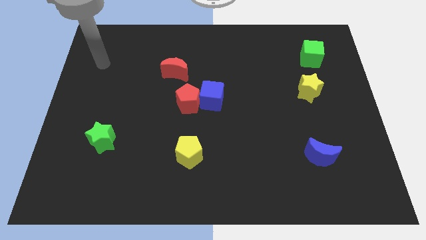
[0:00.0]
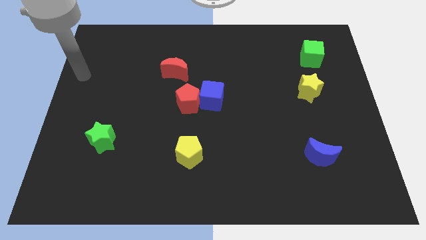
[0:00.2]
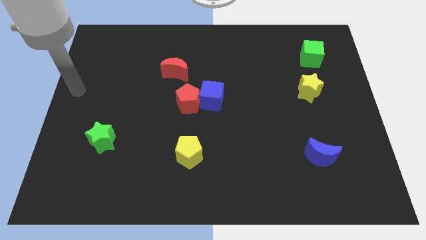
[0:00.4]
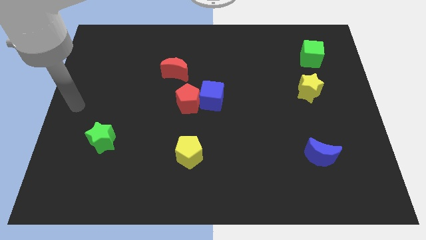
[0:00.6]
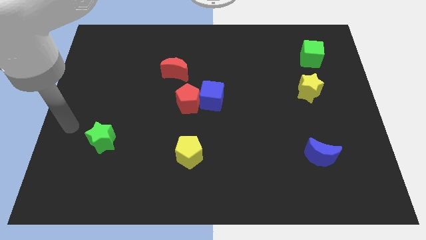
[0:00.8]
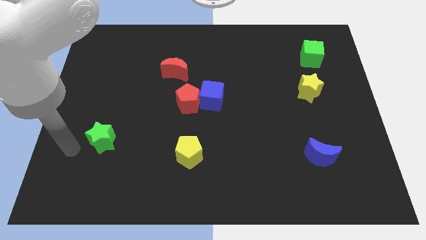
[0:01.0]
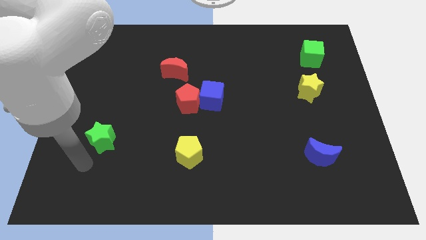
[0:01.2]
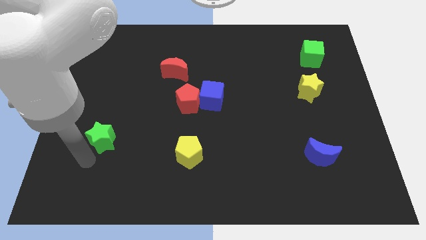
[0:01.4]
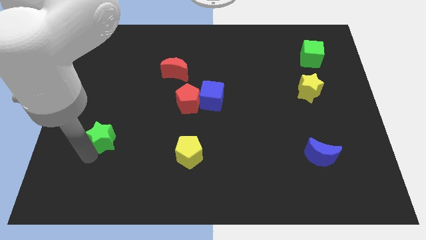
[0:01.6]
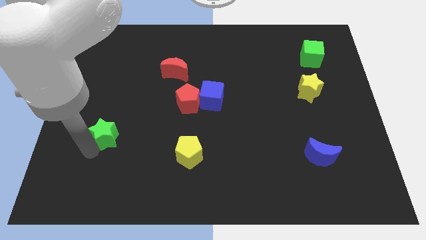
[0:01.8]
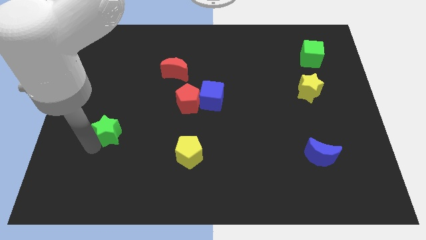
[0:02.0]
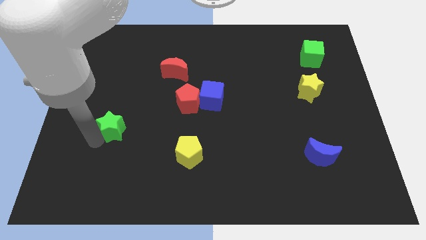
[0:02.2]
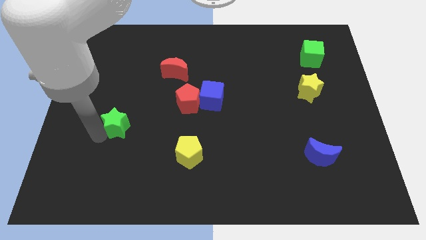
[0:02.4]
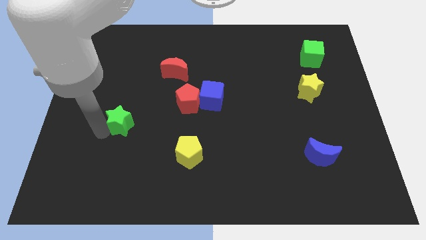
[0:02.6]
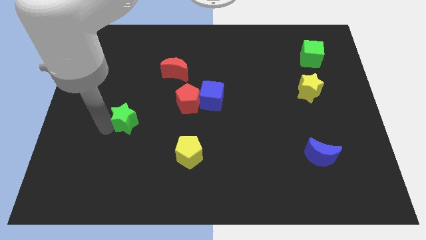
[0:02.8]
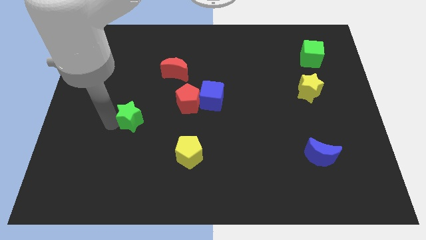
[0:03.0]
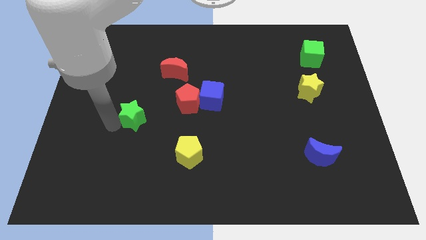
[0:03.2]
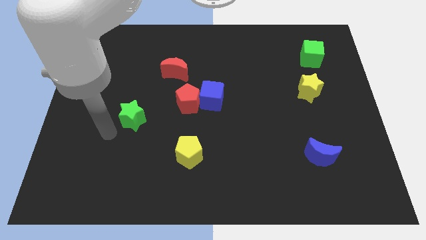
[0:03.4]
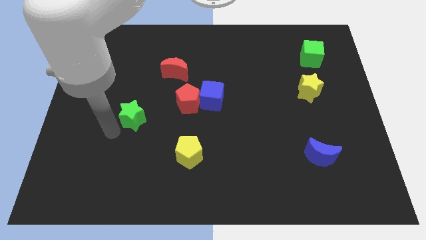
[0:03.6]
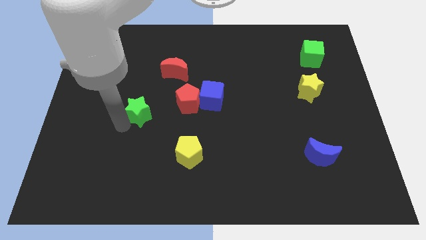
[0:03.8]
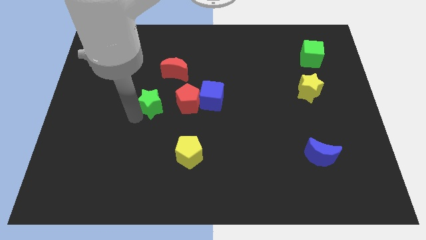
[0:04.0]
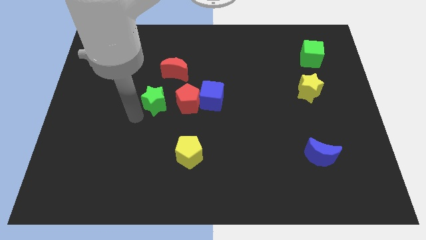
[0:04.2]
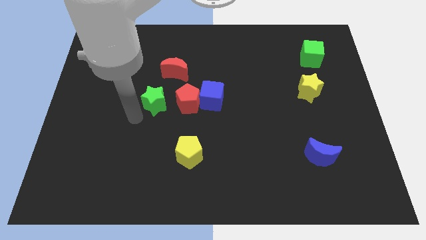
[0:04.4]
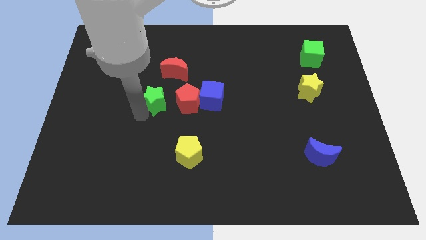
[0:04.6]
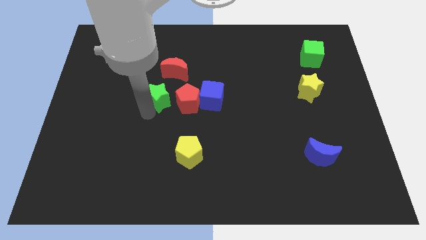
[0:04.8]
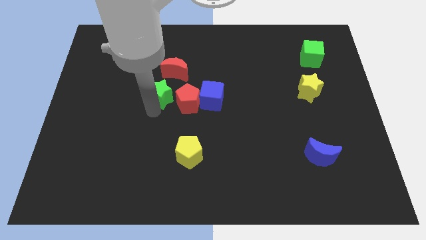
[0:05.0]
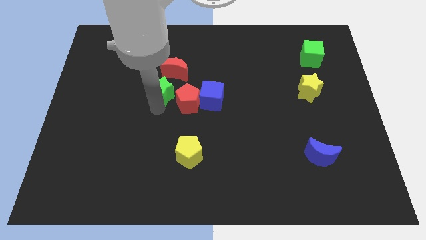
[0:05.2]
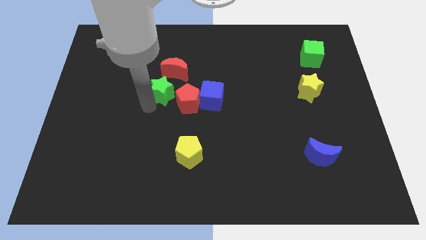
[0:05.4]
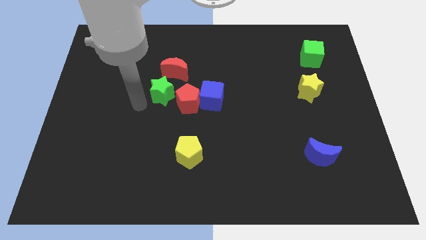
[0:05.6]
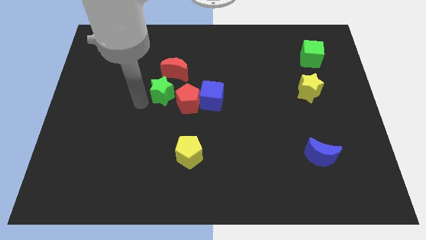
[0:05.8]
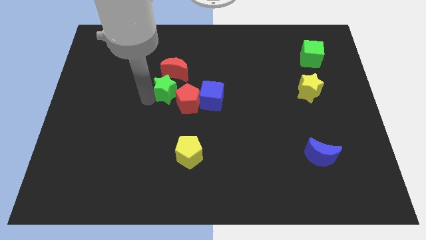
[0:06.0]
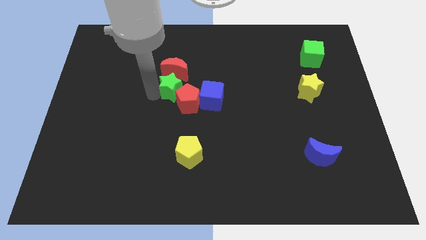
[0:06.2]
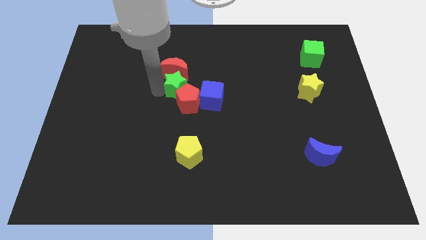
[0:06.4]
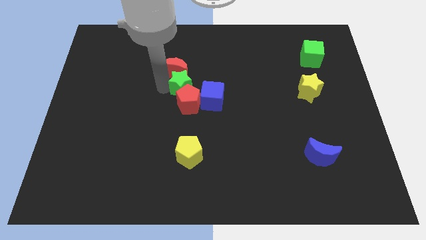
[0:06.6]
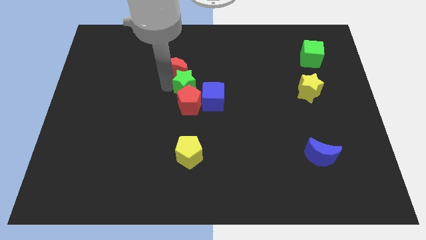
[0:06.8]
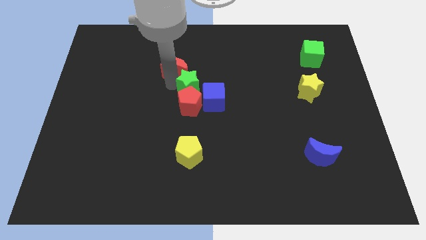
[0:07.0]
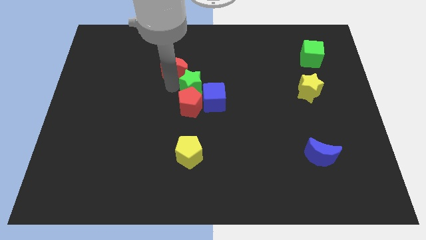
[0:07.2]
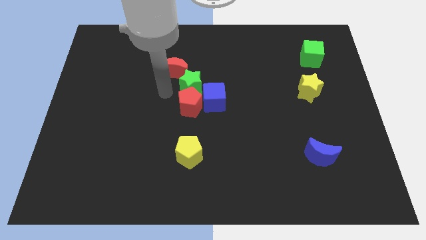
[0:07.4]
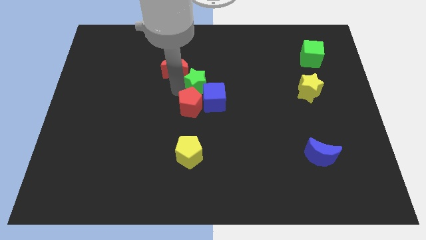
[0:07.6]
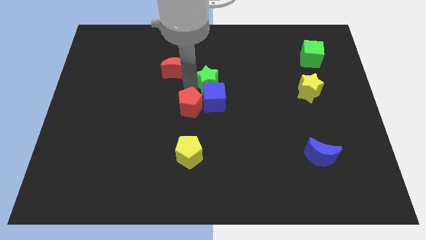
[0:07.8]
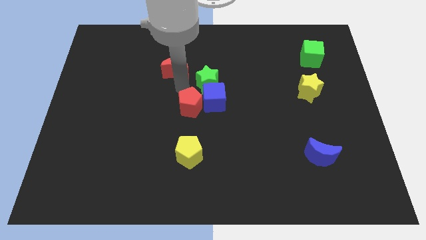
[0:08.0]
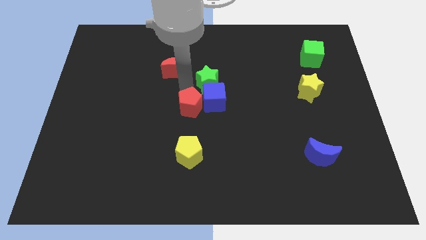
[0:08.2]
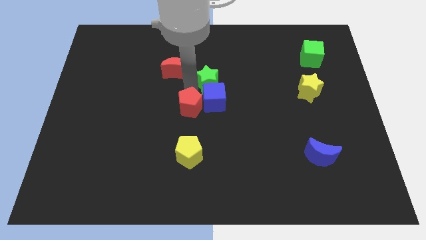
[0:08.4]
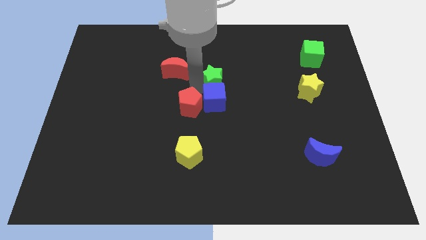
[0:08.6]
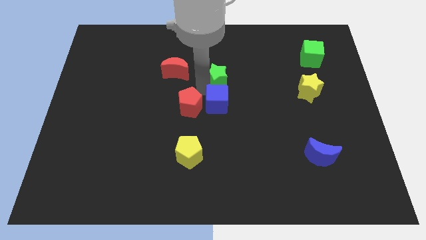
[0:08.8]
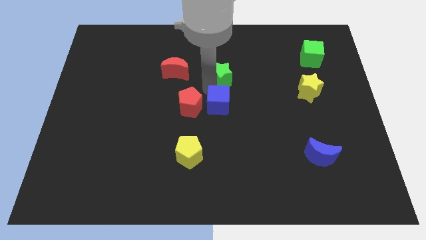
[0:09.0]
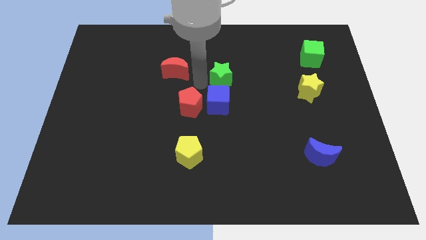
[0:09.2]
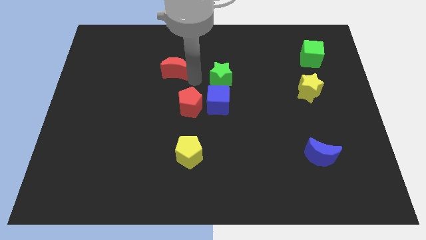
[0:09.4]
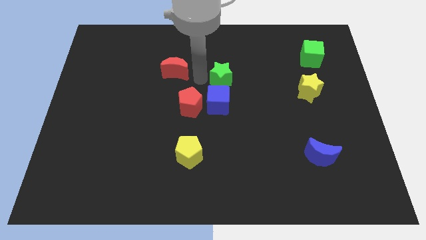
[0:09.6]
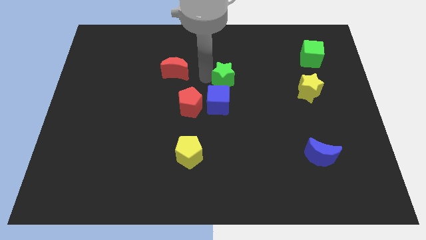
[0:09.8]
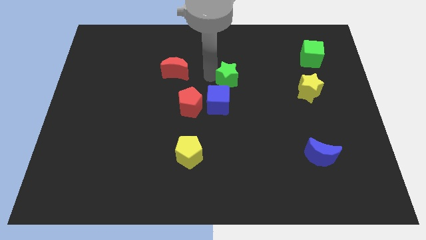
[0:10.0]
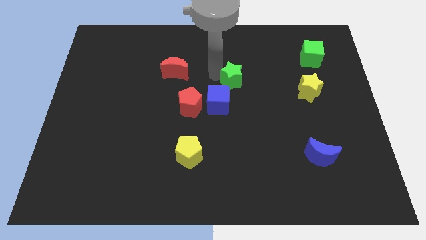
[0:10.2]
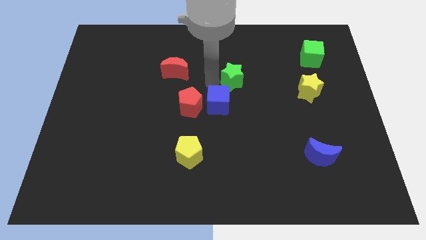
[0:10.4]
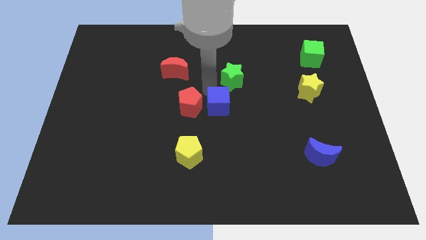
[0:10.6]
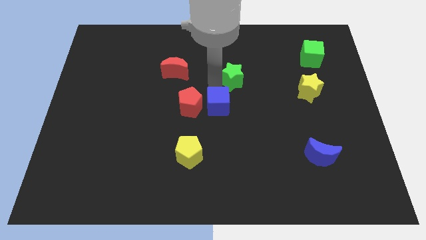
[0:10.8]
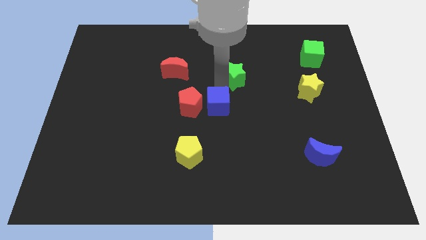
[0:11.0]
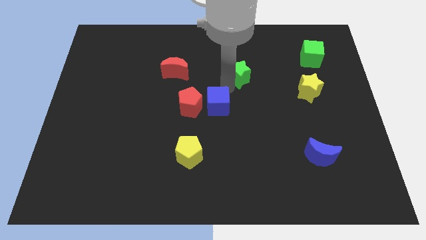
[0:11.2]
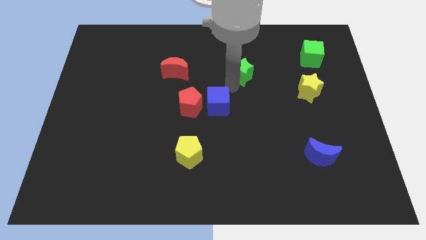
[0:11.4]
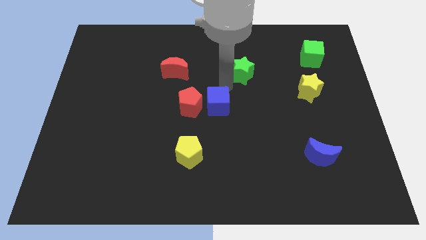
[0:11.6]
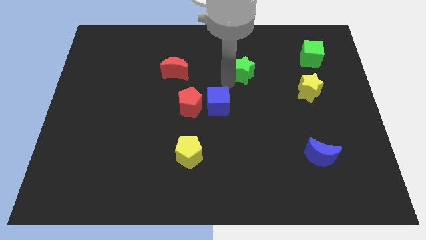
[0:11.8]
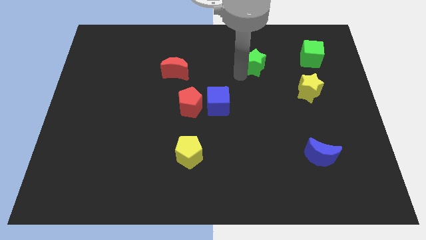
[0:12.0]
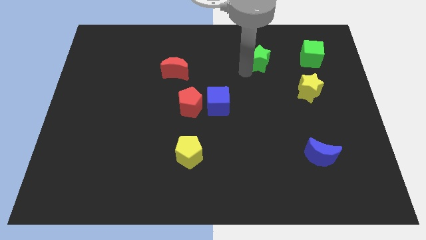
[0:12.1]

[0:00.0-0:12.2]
push the green star to the left side of the green cube

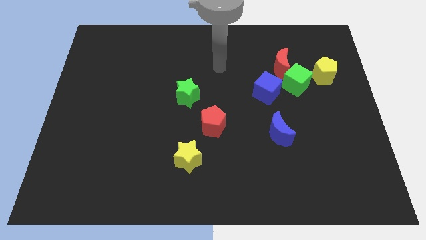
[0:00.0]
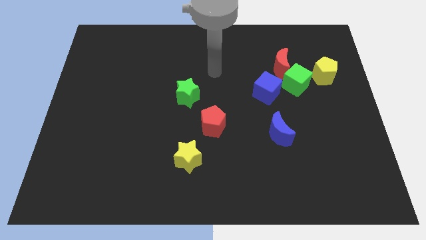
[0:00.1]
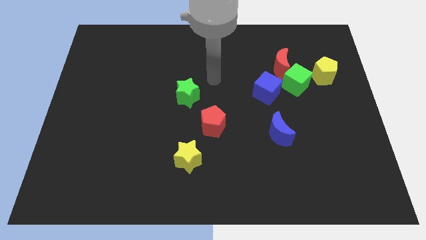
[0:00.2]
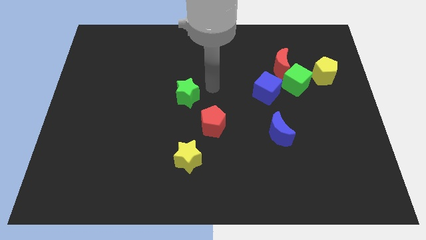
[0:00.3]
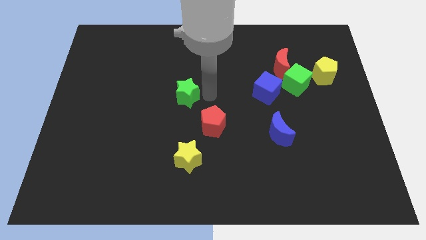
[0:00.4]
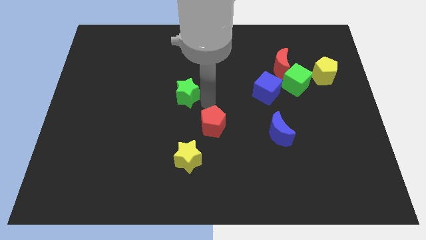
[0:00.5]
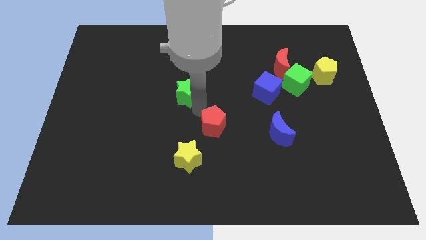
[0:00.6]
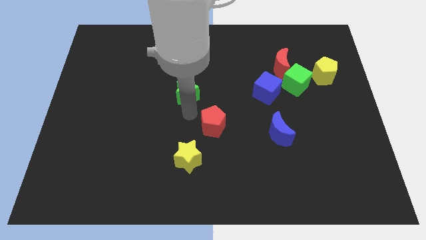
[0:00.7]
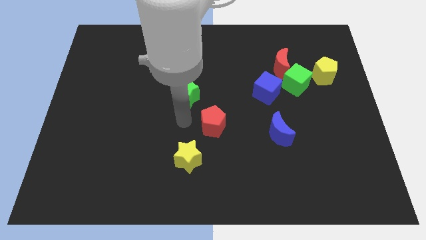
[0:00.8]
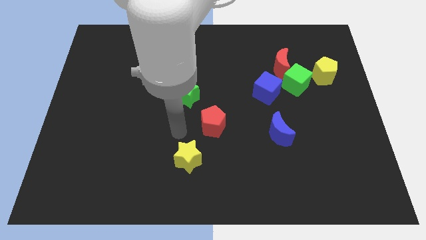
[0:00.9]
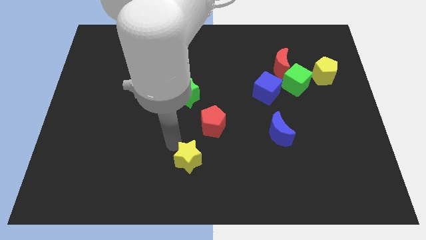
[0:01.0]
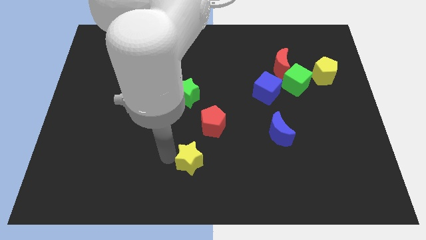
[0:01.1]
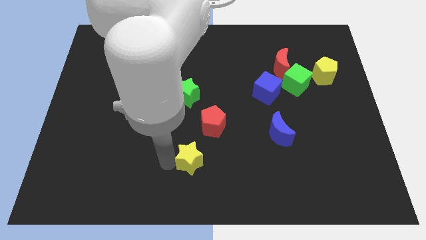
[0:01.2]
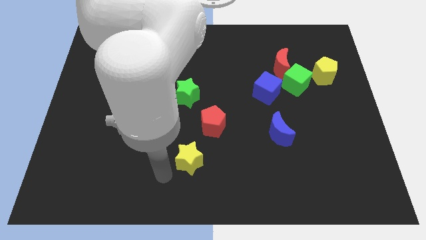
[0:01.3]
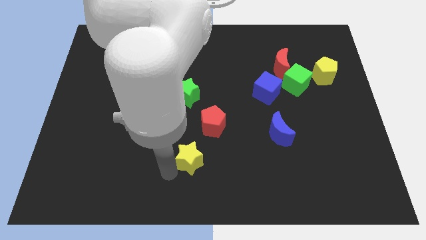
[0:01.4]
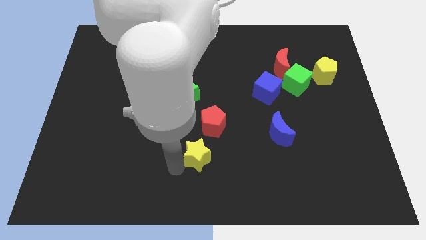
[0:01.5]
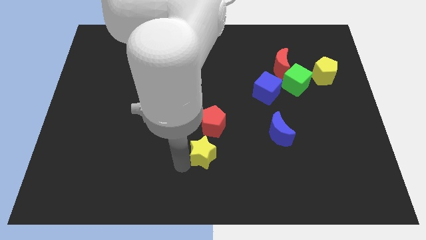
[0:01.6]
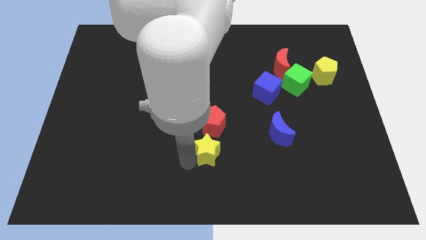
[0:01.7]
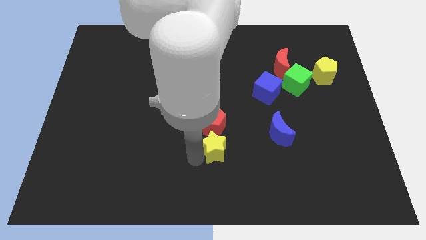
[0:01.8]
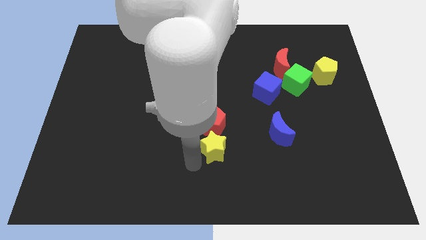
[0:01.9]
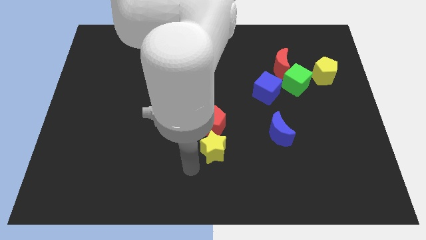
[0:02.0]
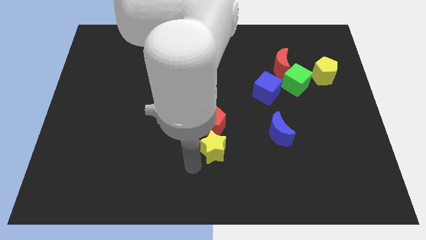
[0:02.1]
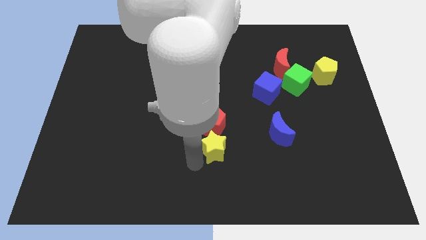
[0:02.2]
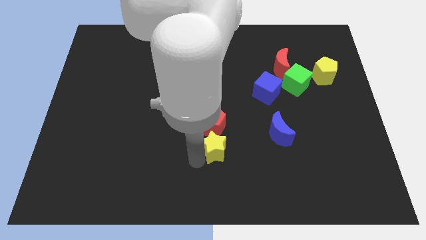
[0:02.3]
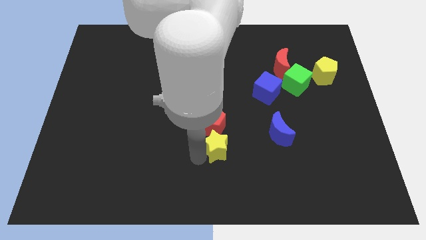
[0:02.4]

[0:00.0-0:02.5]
move the yellow star to the left of the blue moon
